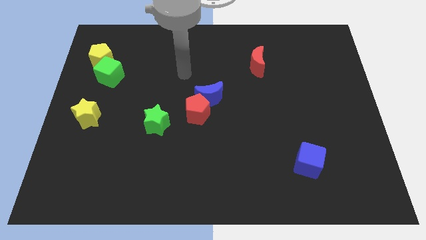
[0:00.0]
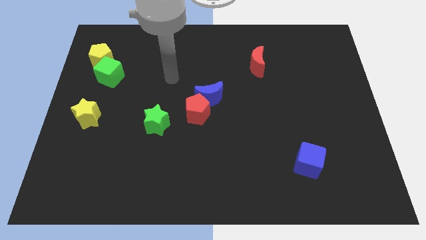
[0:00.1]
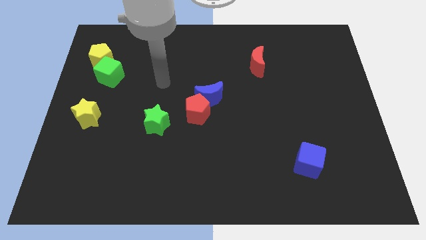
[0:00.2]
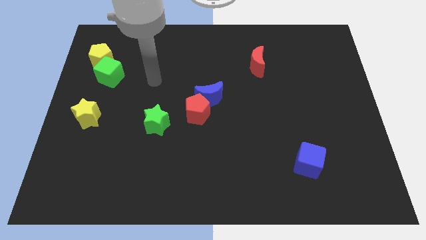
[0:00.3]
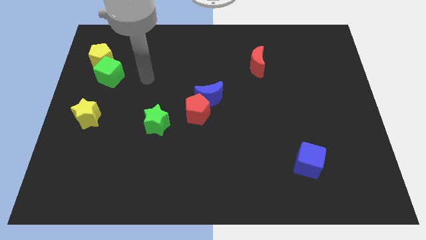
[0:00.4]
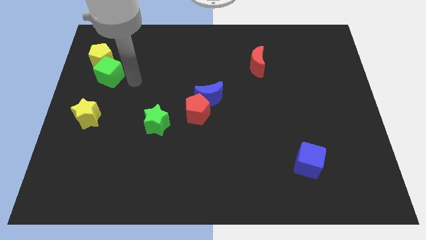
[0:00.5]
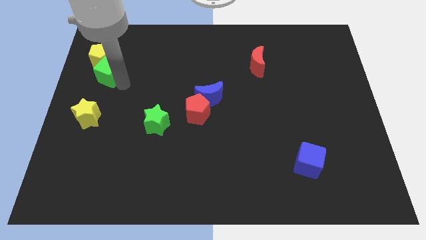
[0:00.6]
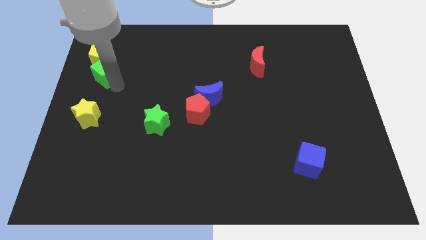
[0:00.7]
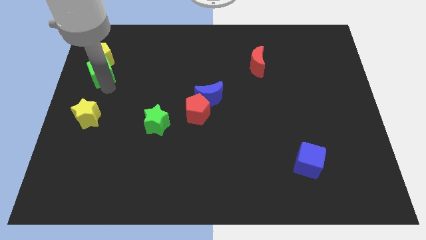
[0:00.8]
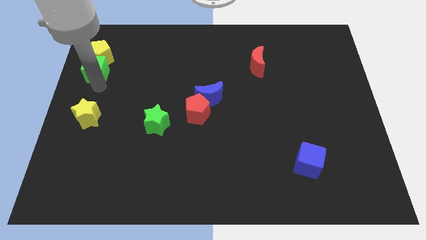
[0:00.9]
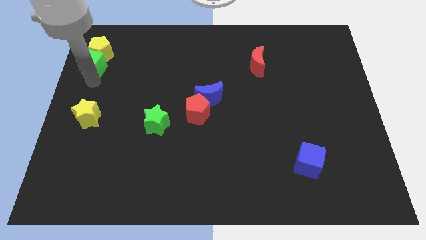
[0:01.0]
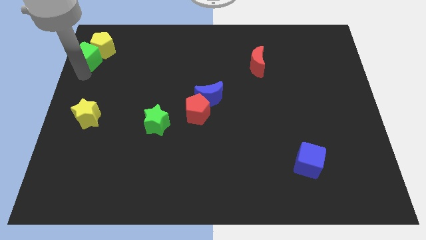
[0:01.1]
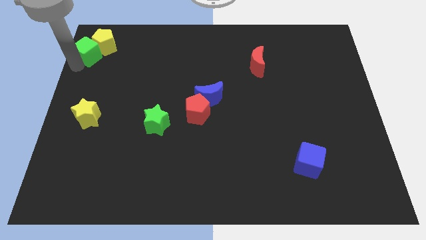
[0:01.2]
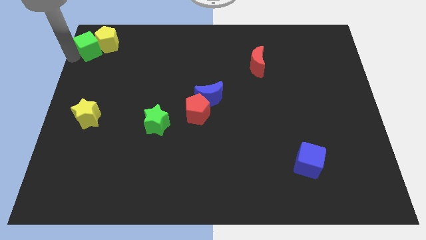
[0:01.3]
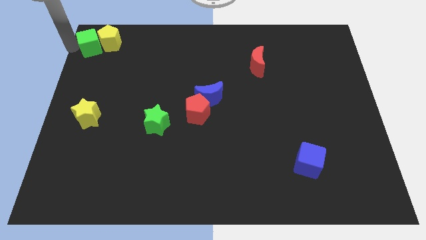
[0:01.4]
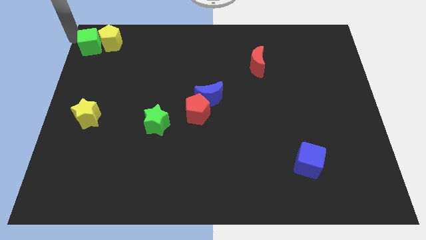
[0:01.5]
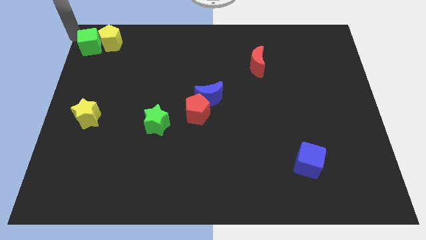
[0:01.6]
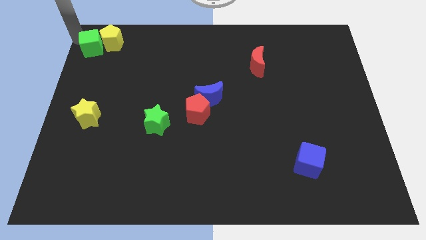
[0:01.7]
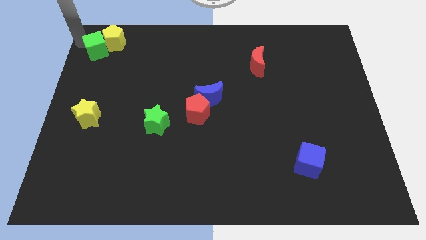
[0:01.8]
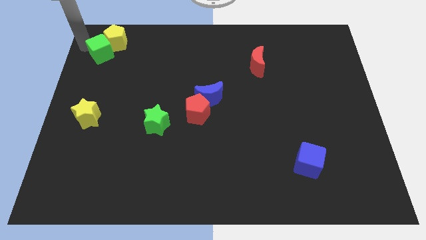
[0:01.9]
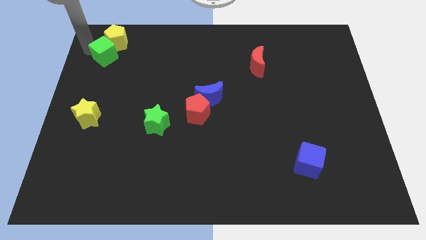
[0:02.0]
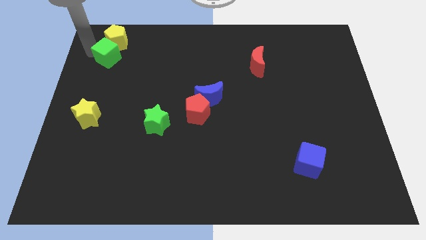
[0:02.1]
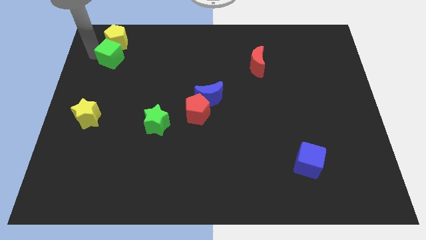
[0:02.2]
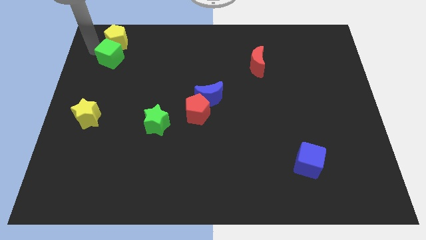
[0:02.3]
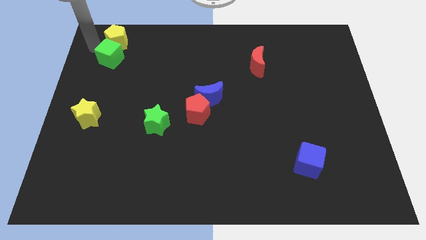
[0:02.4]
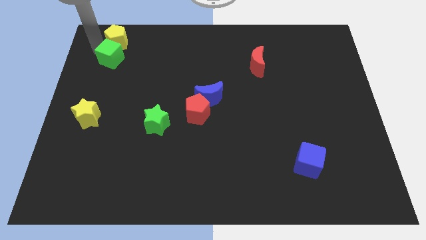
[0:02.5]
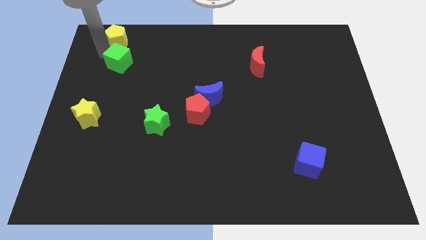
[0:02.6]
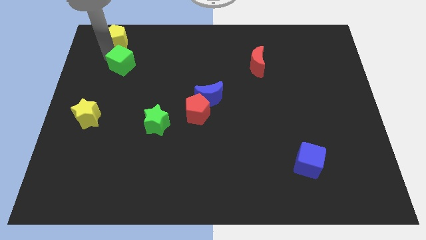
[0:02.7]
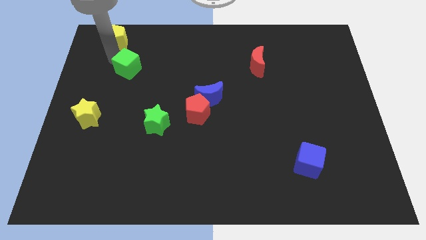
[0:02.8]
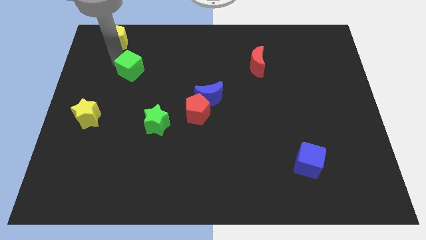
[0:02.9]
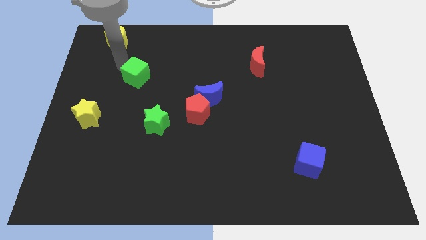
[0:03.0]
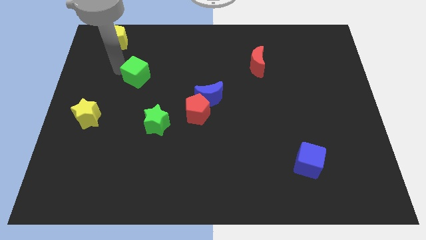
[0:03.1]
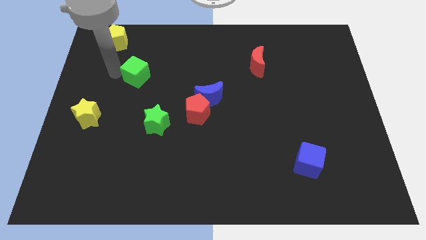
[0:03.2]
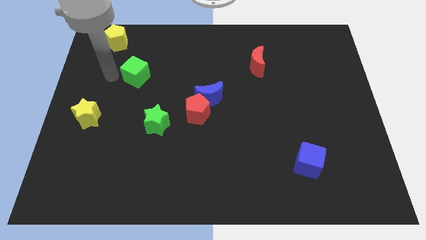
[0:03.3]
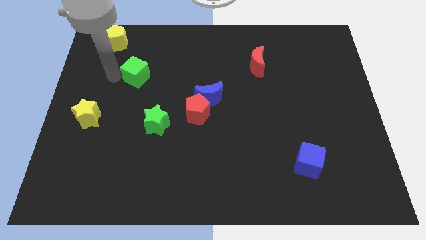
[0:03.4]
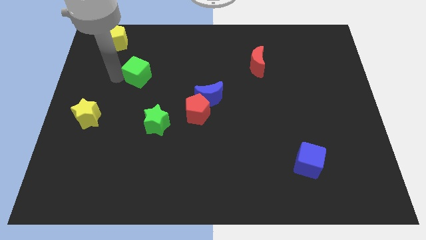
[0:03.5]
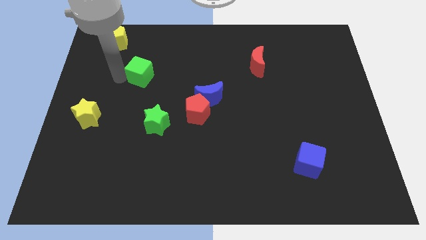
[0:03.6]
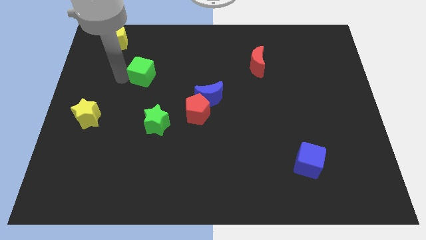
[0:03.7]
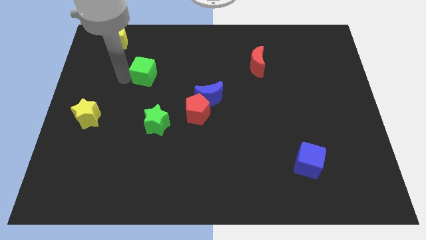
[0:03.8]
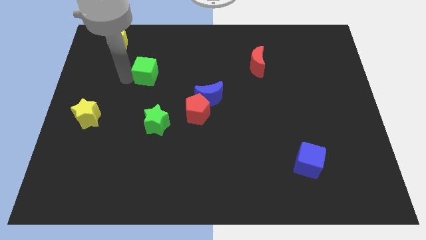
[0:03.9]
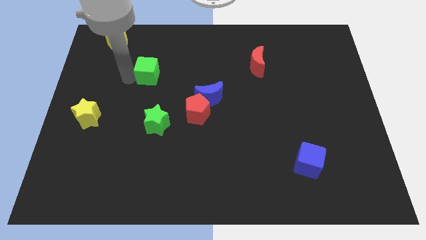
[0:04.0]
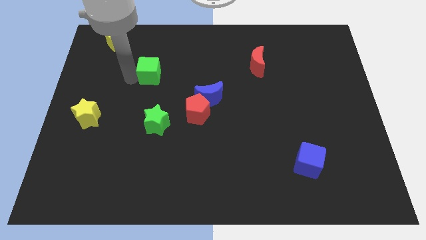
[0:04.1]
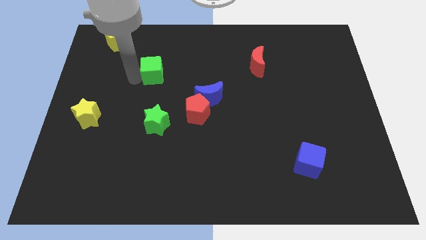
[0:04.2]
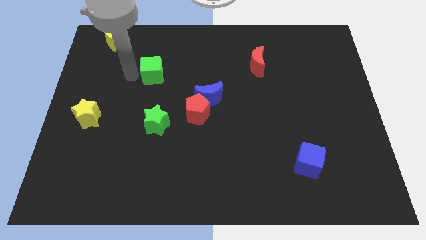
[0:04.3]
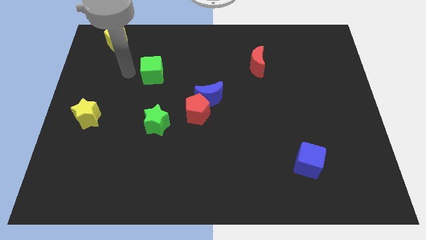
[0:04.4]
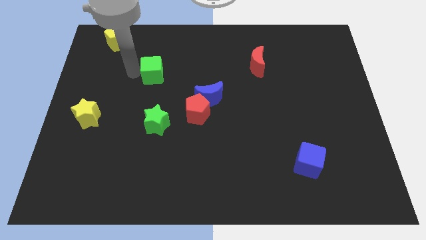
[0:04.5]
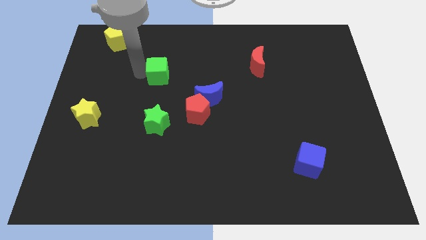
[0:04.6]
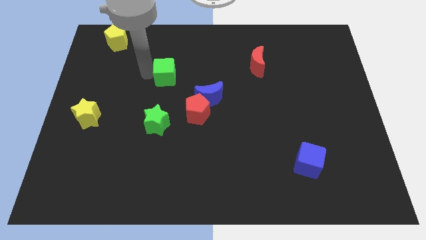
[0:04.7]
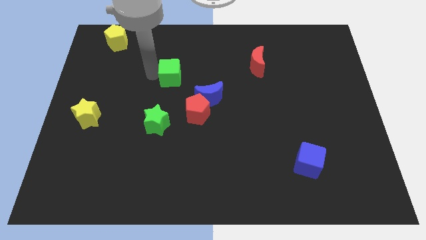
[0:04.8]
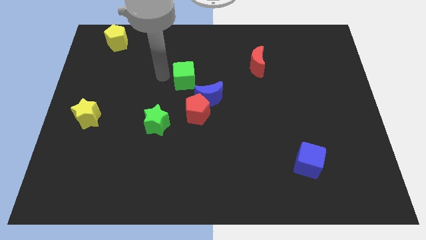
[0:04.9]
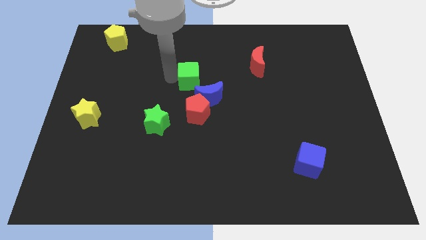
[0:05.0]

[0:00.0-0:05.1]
push the green cube right

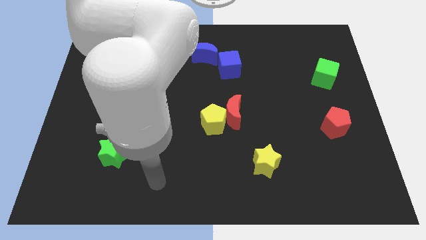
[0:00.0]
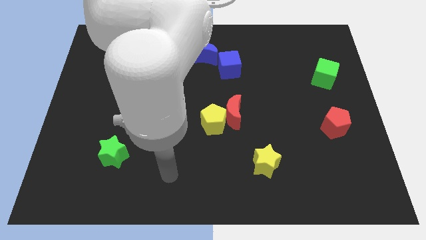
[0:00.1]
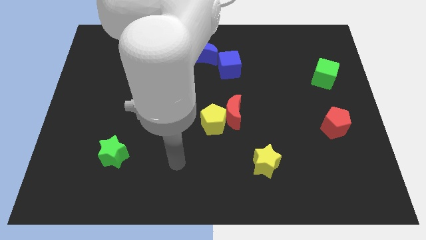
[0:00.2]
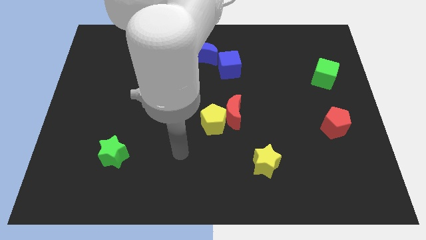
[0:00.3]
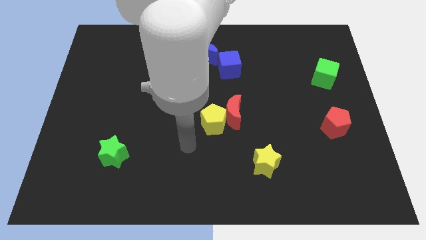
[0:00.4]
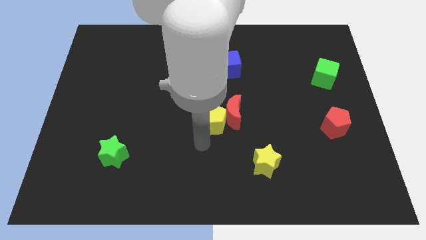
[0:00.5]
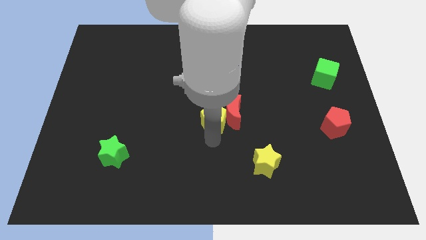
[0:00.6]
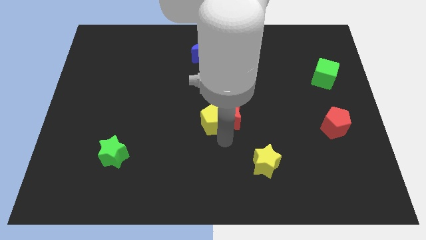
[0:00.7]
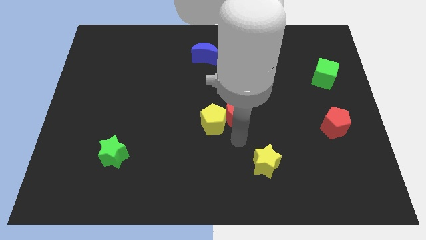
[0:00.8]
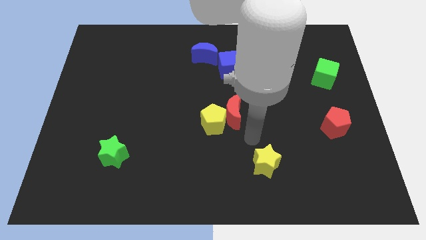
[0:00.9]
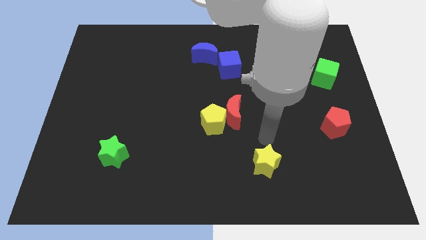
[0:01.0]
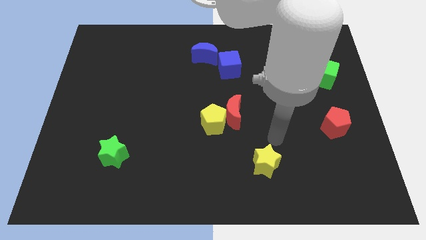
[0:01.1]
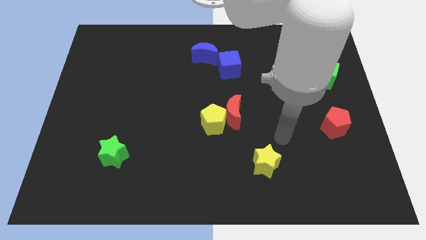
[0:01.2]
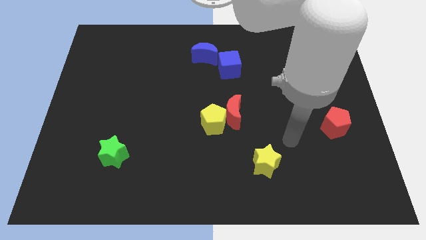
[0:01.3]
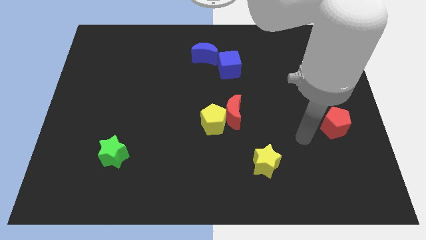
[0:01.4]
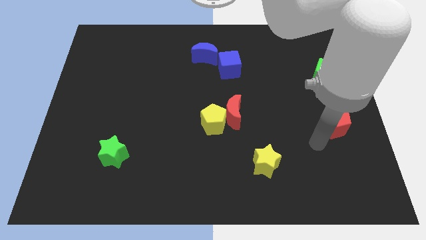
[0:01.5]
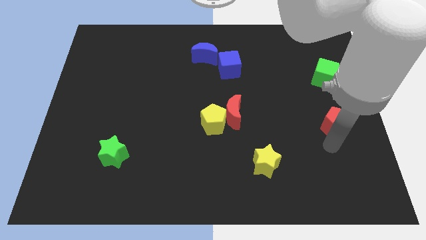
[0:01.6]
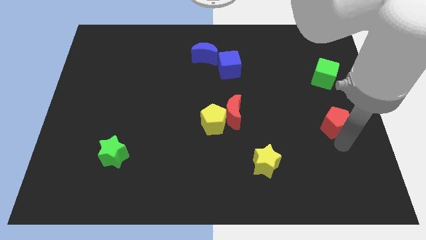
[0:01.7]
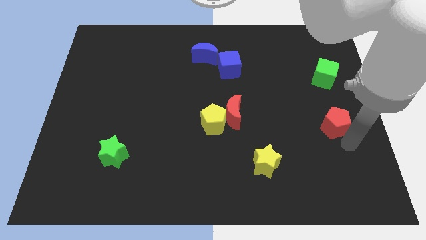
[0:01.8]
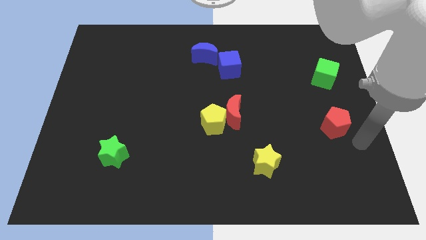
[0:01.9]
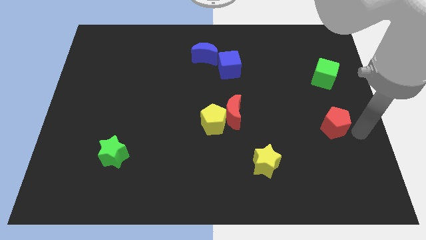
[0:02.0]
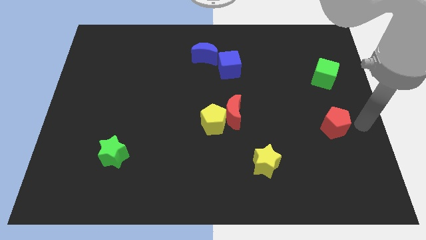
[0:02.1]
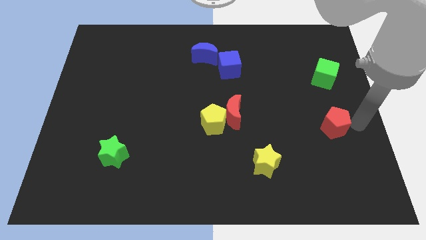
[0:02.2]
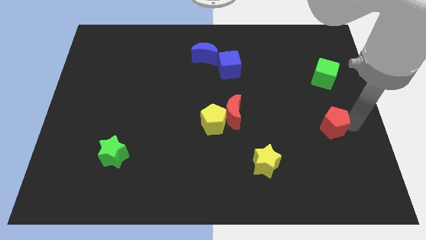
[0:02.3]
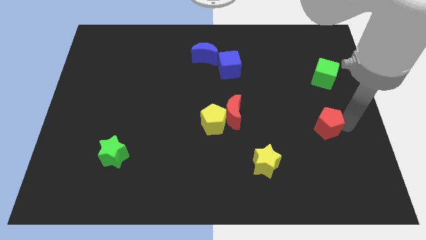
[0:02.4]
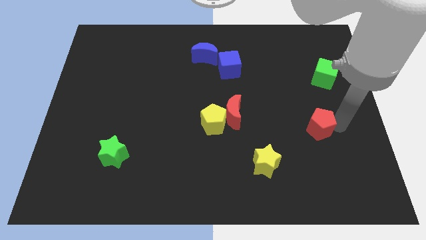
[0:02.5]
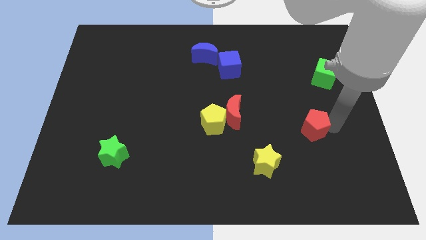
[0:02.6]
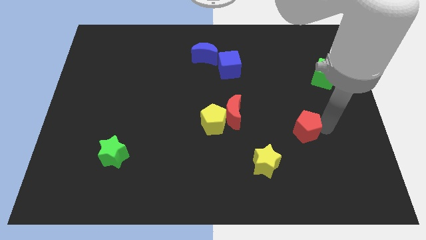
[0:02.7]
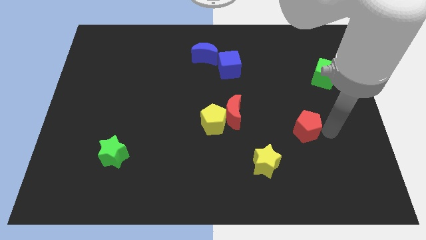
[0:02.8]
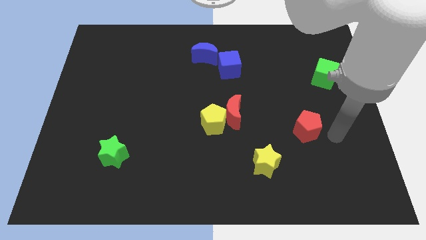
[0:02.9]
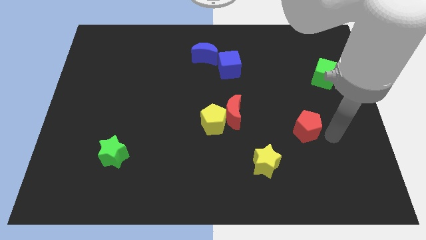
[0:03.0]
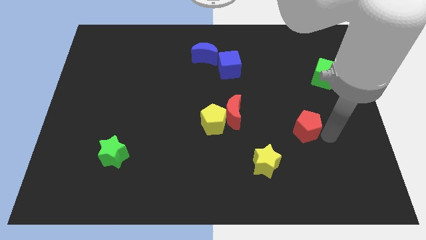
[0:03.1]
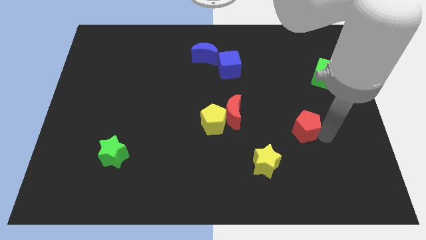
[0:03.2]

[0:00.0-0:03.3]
move the red pentagon to the left somewhat
